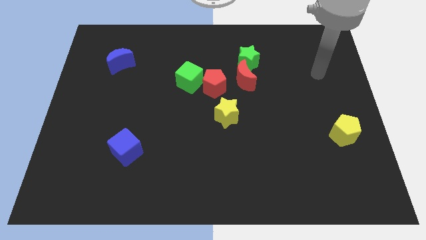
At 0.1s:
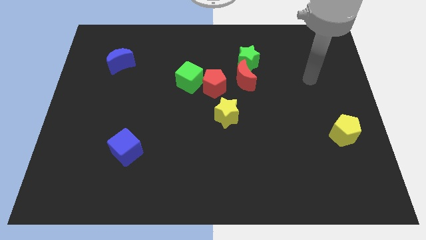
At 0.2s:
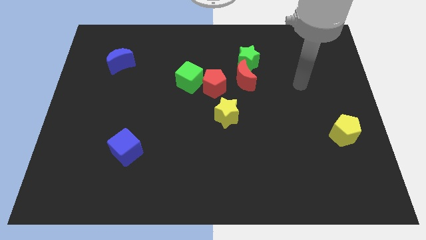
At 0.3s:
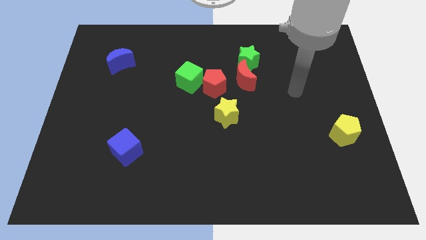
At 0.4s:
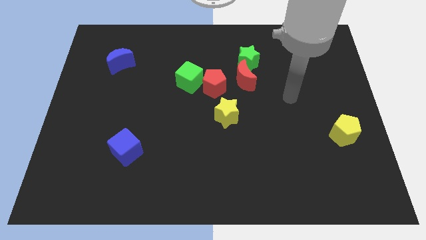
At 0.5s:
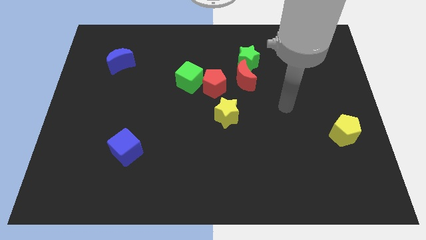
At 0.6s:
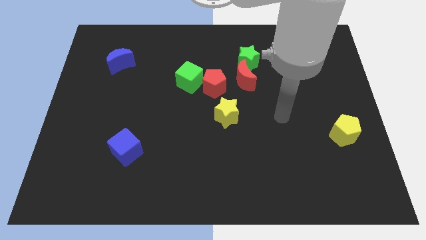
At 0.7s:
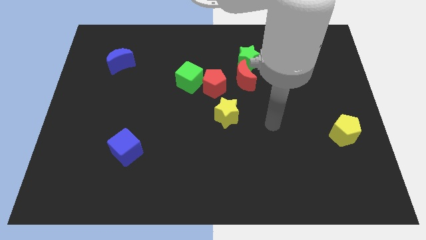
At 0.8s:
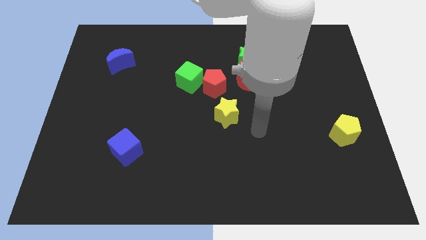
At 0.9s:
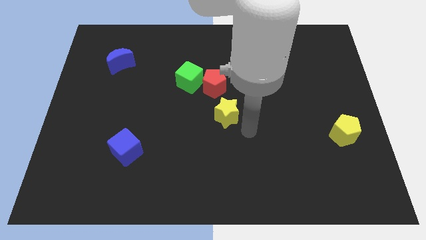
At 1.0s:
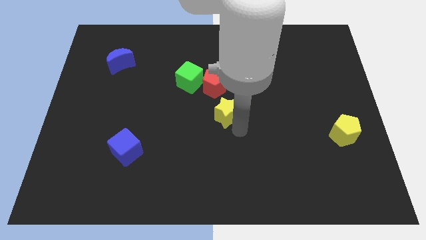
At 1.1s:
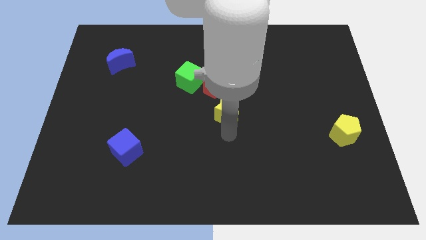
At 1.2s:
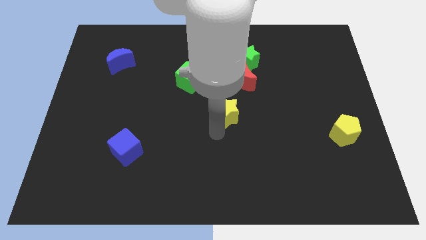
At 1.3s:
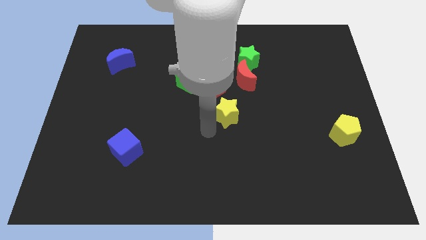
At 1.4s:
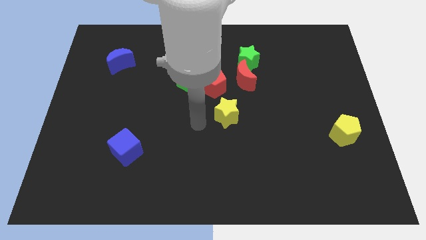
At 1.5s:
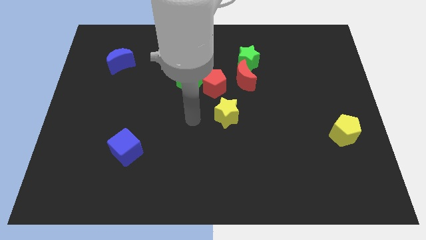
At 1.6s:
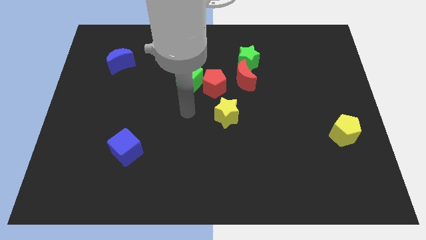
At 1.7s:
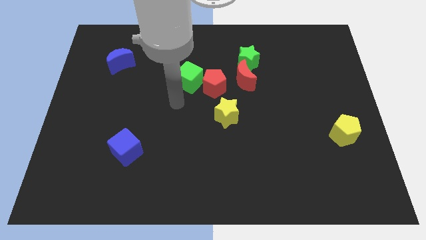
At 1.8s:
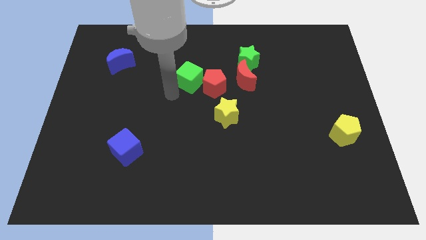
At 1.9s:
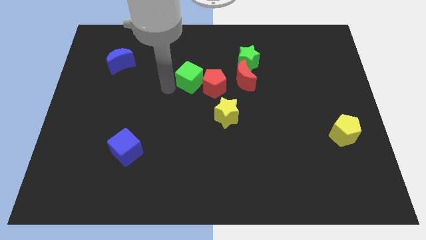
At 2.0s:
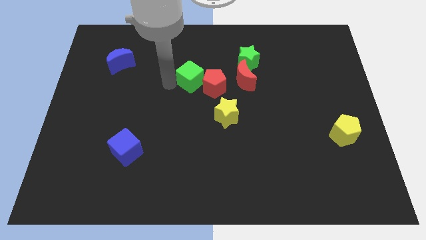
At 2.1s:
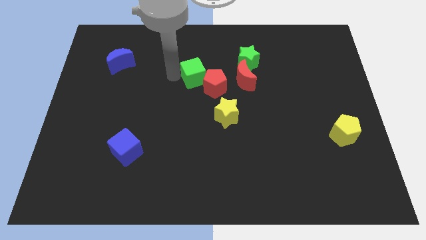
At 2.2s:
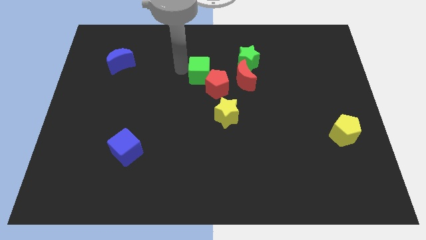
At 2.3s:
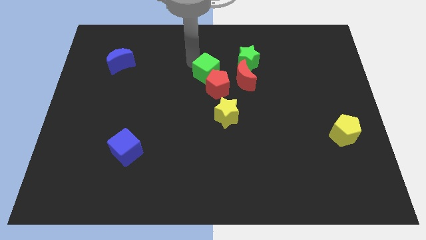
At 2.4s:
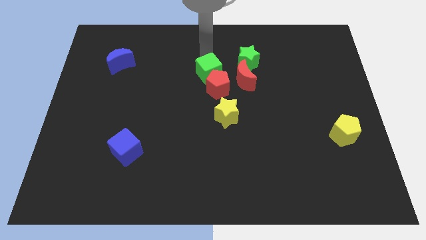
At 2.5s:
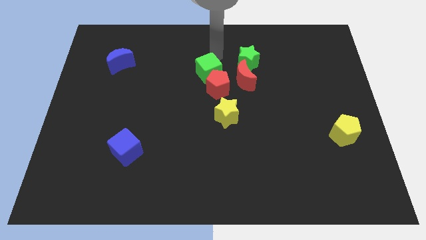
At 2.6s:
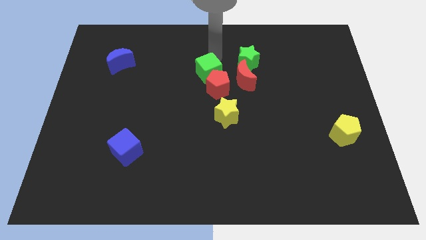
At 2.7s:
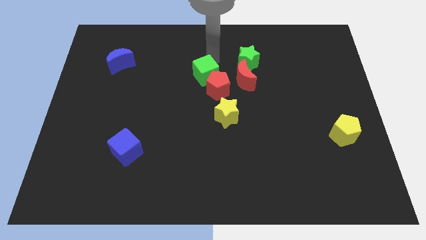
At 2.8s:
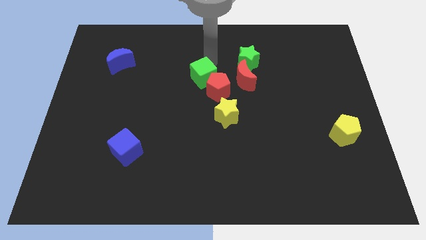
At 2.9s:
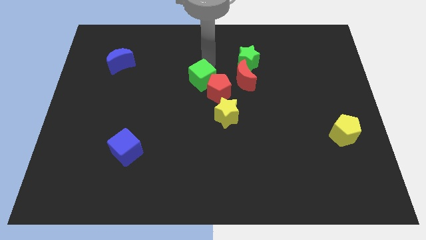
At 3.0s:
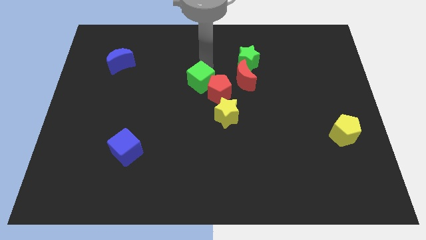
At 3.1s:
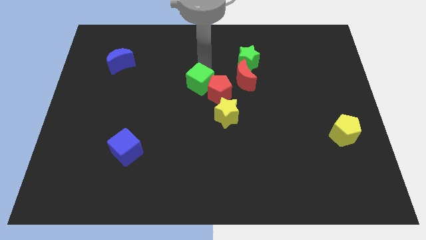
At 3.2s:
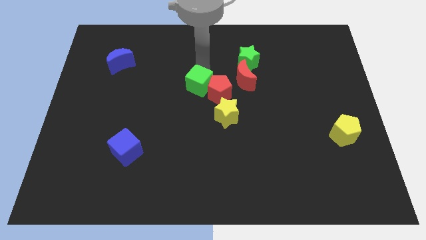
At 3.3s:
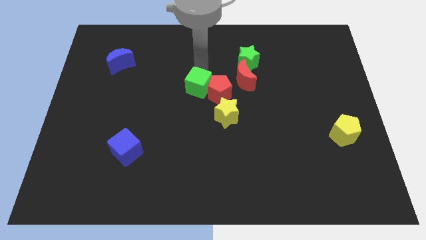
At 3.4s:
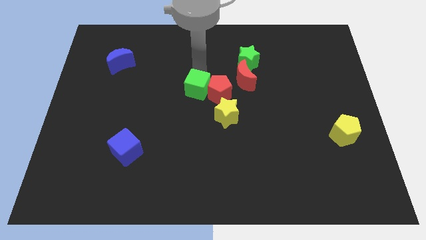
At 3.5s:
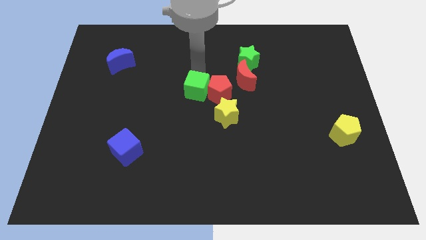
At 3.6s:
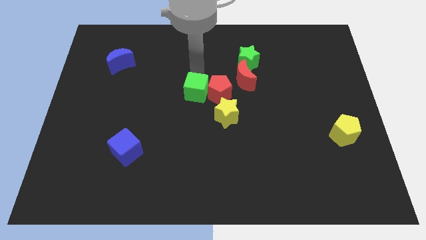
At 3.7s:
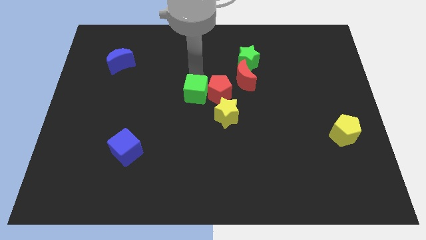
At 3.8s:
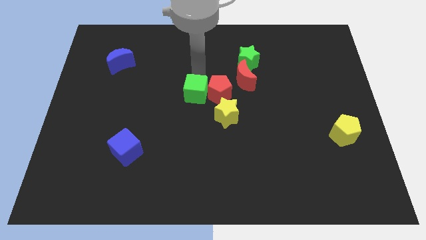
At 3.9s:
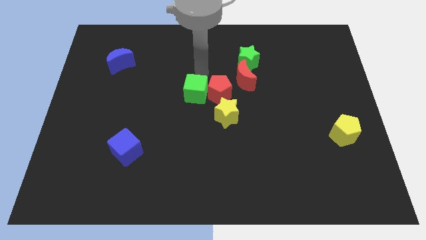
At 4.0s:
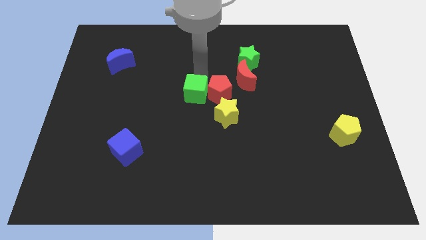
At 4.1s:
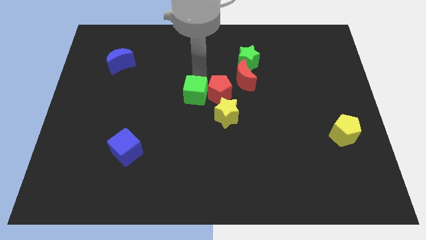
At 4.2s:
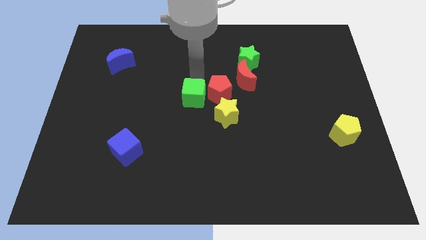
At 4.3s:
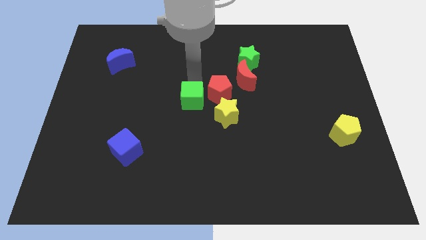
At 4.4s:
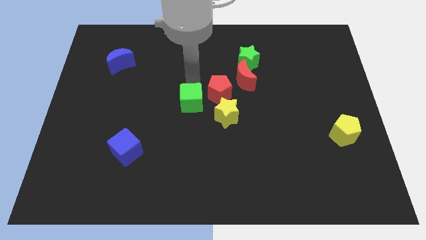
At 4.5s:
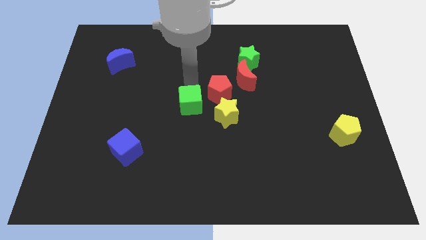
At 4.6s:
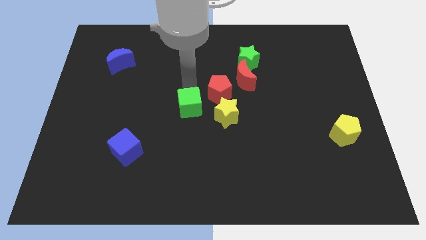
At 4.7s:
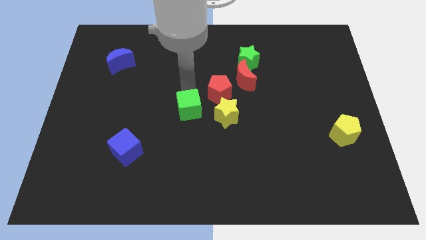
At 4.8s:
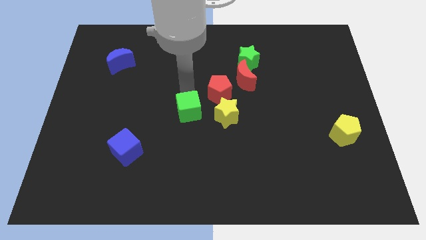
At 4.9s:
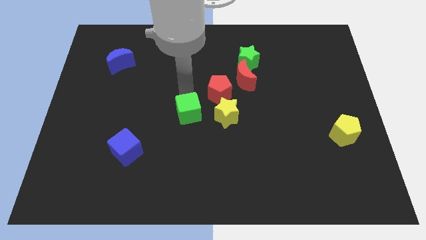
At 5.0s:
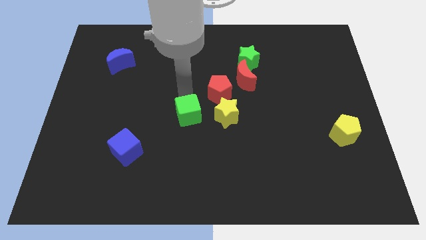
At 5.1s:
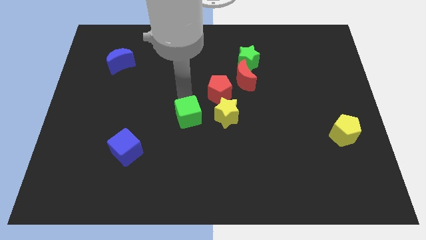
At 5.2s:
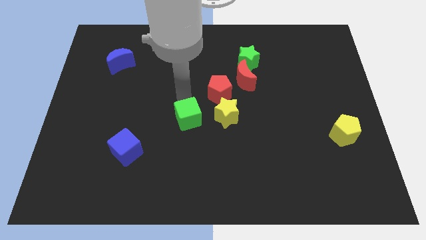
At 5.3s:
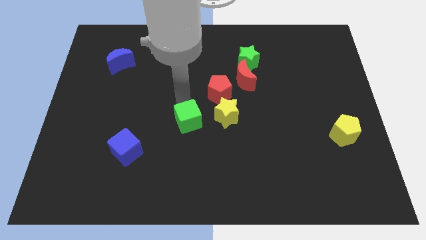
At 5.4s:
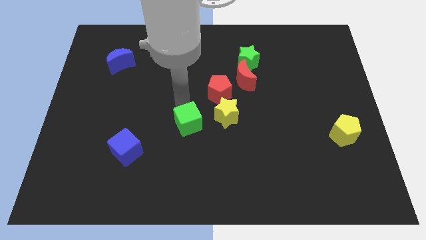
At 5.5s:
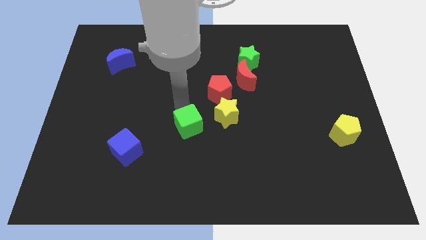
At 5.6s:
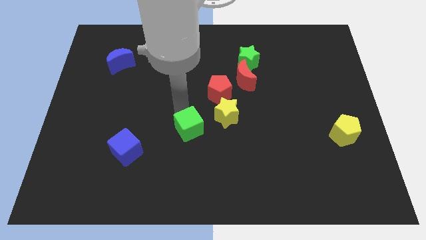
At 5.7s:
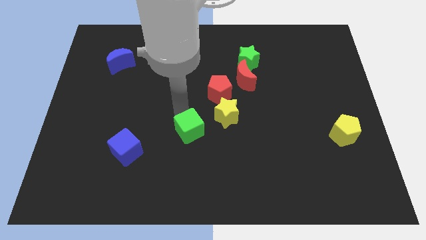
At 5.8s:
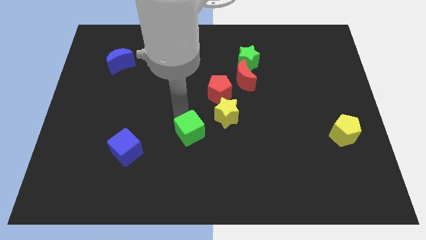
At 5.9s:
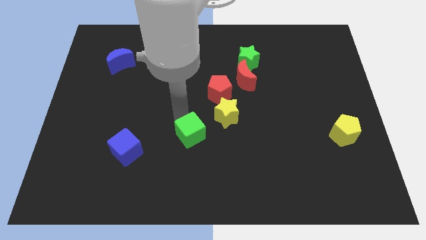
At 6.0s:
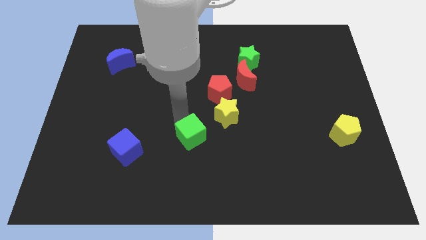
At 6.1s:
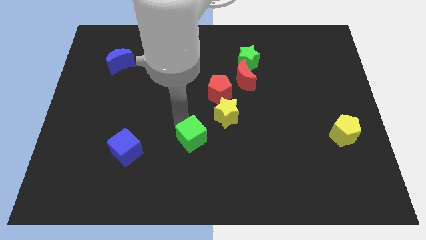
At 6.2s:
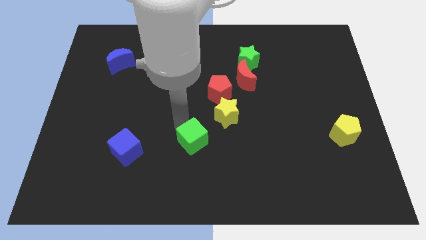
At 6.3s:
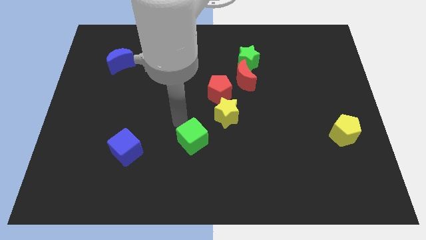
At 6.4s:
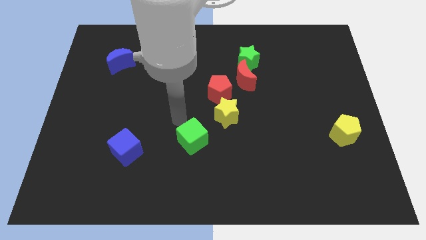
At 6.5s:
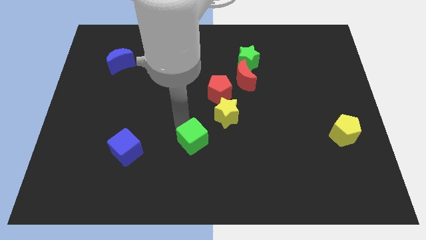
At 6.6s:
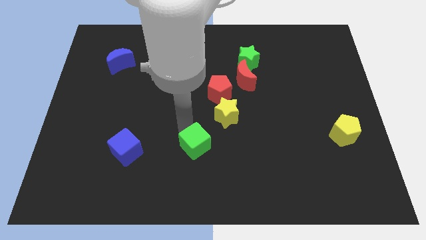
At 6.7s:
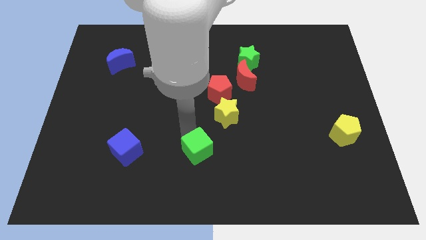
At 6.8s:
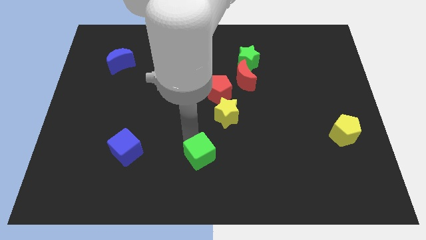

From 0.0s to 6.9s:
put the green cube to the bottom side
